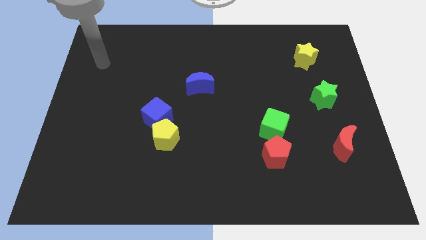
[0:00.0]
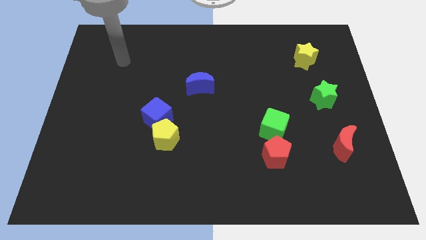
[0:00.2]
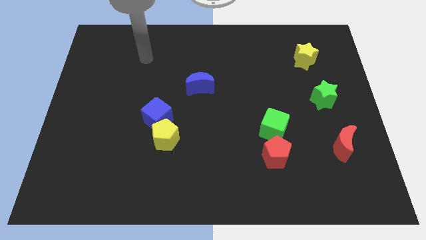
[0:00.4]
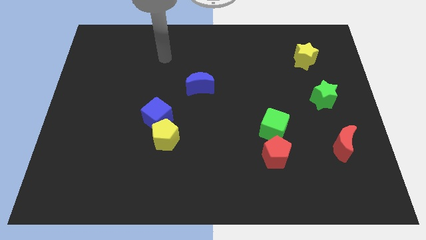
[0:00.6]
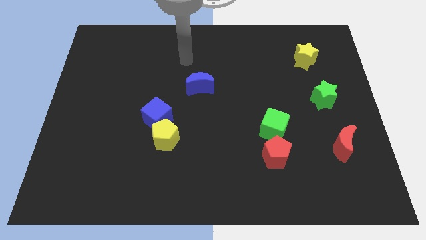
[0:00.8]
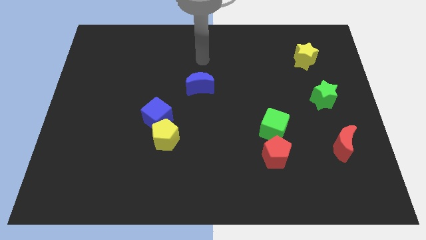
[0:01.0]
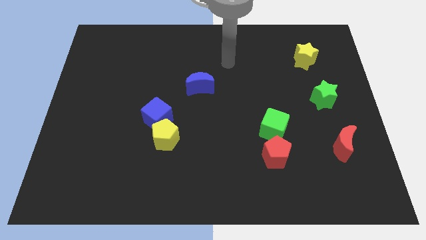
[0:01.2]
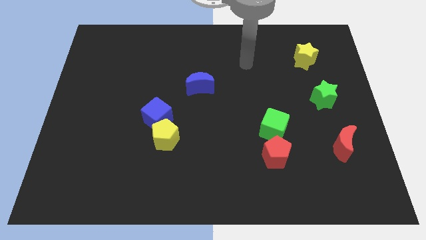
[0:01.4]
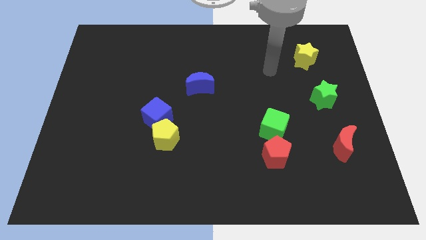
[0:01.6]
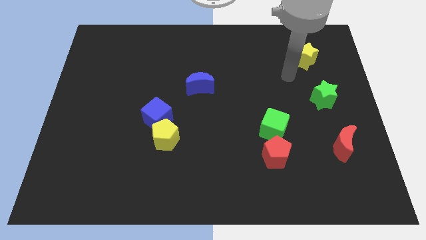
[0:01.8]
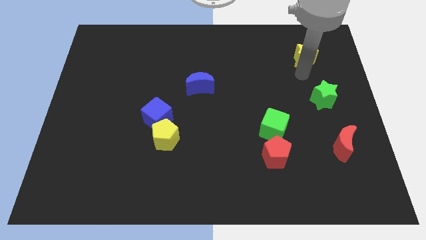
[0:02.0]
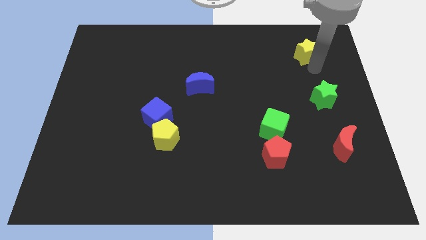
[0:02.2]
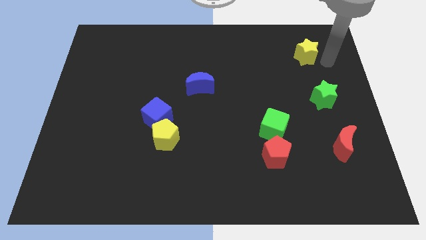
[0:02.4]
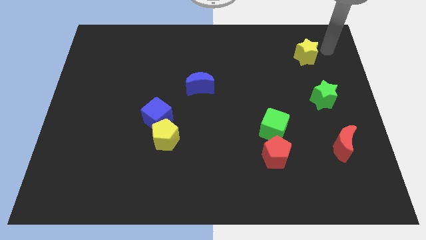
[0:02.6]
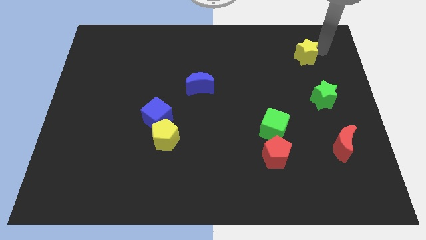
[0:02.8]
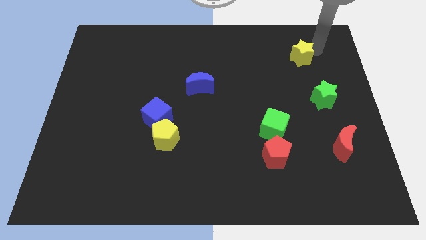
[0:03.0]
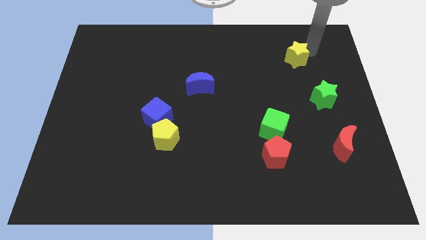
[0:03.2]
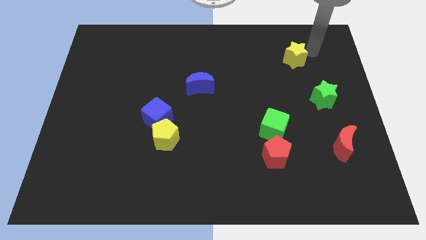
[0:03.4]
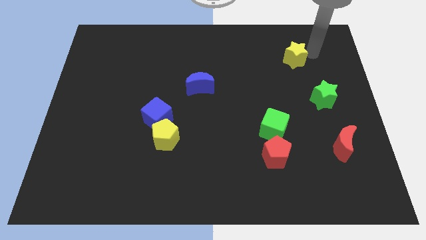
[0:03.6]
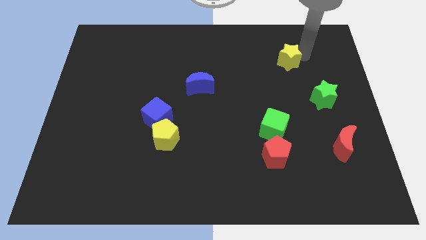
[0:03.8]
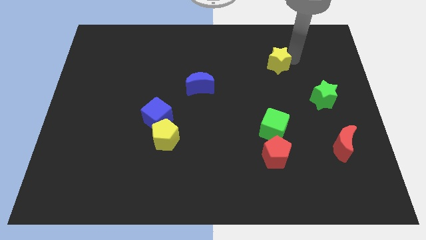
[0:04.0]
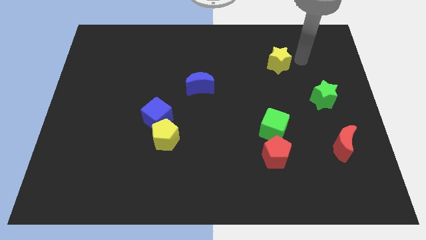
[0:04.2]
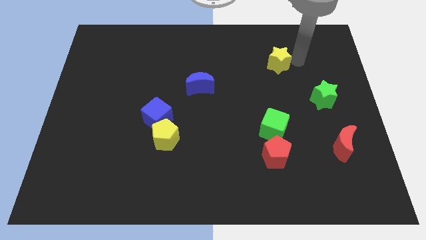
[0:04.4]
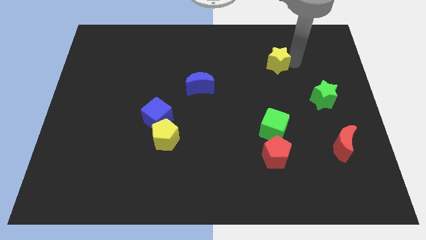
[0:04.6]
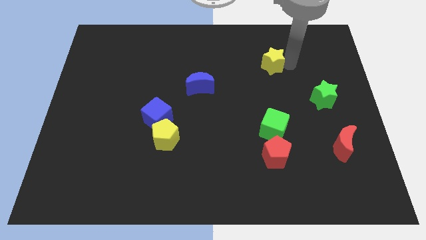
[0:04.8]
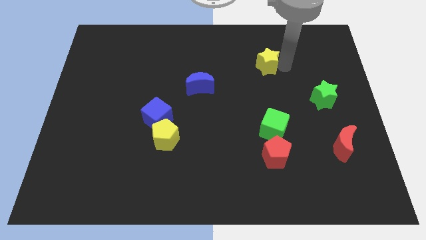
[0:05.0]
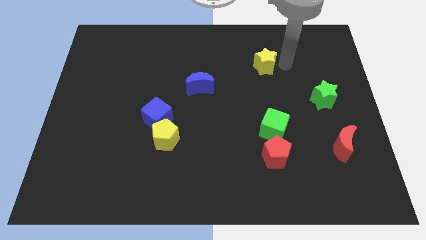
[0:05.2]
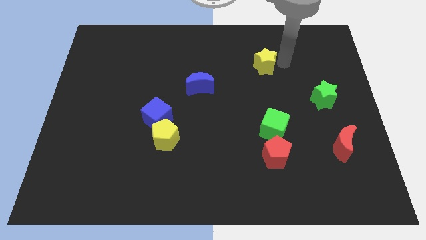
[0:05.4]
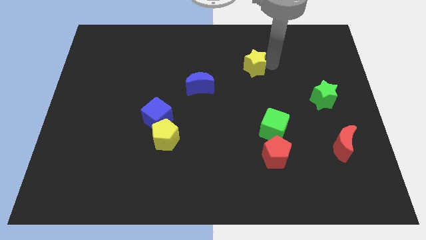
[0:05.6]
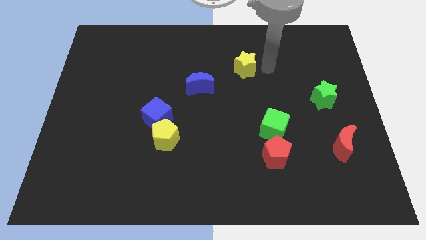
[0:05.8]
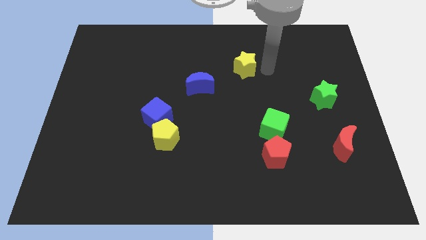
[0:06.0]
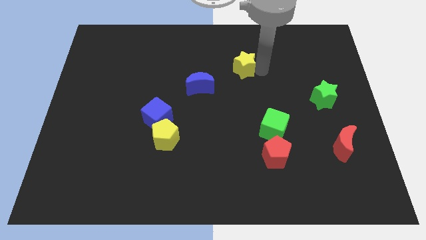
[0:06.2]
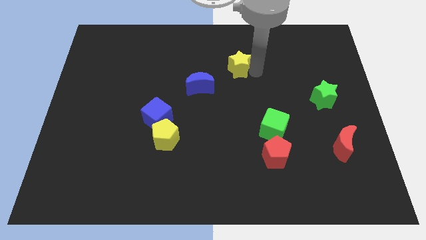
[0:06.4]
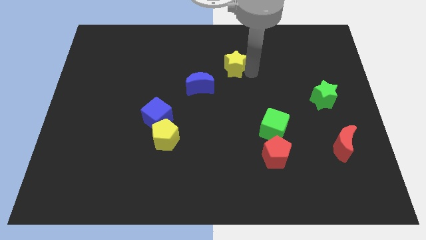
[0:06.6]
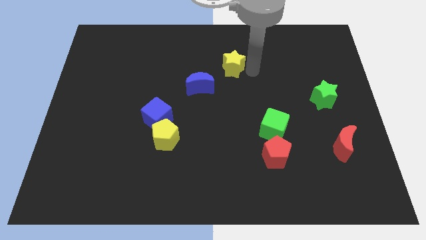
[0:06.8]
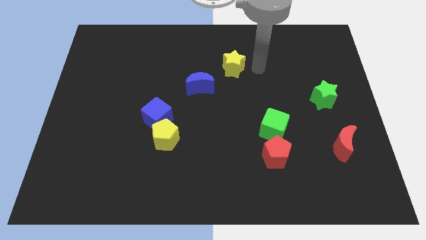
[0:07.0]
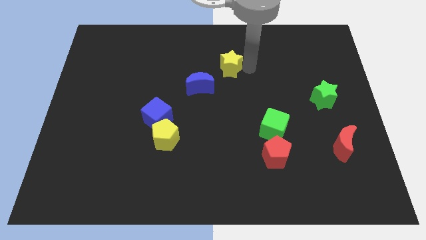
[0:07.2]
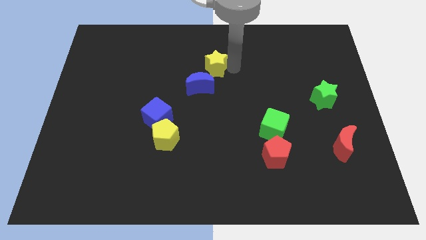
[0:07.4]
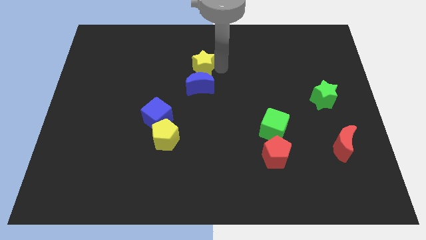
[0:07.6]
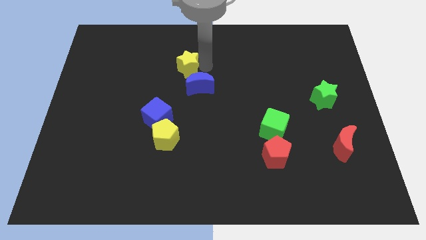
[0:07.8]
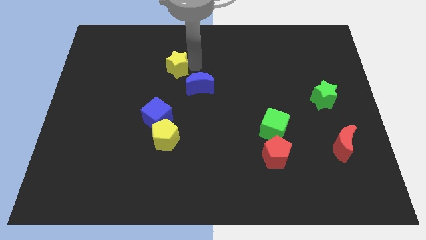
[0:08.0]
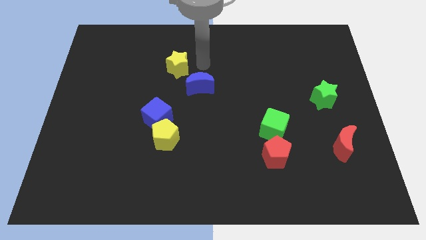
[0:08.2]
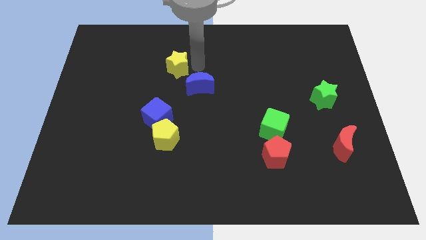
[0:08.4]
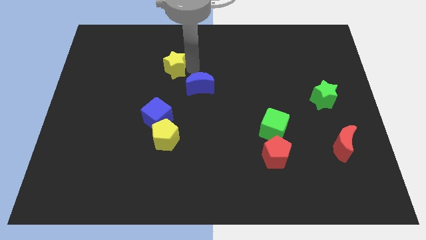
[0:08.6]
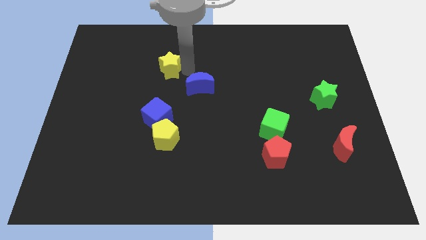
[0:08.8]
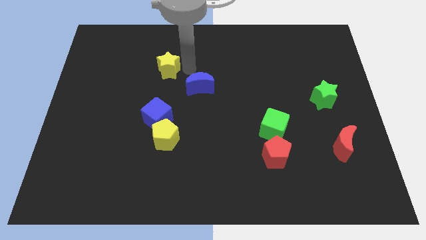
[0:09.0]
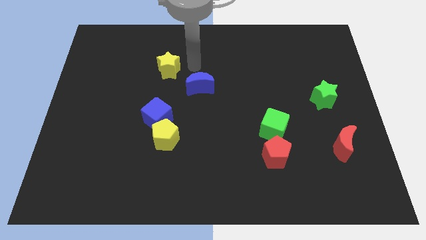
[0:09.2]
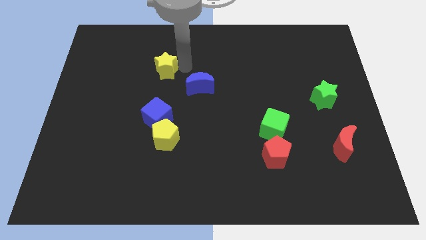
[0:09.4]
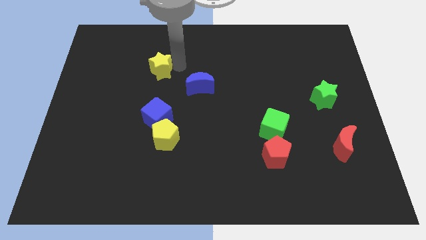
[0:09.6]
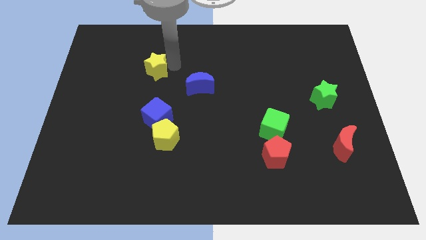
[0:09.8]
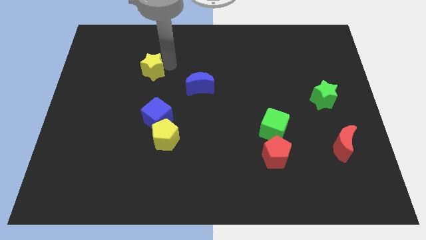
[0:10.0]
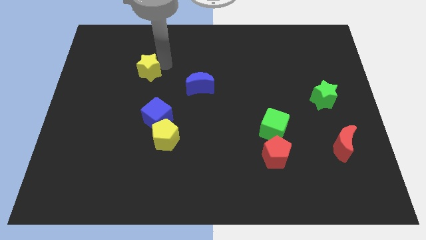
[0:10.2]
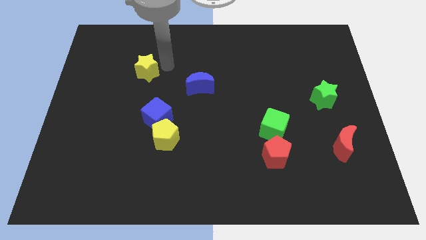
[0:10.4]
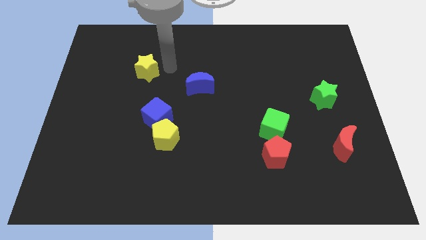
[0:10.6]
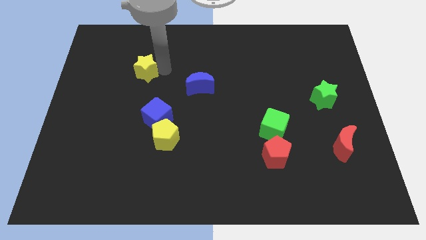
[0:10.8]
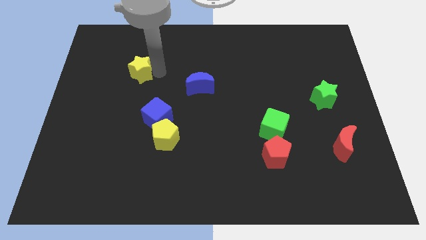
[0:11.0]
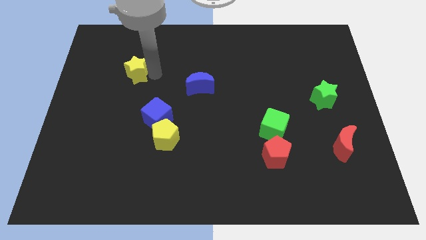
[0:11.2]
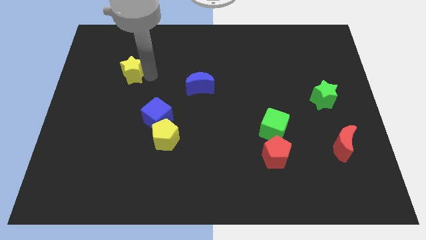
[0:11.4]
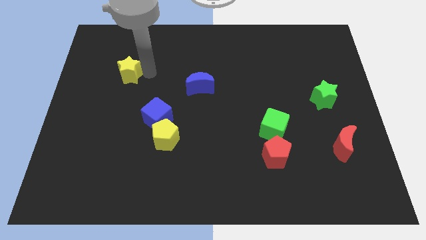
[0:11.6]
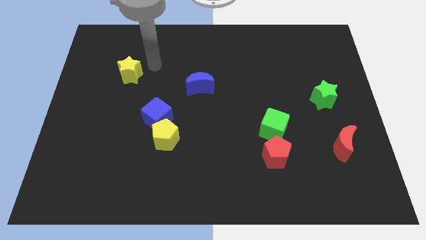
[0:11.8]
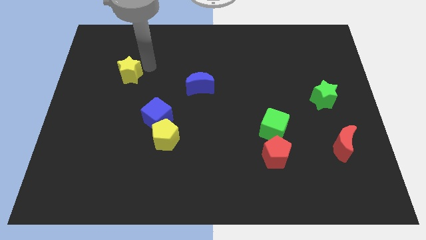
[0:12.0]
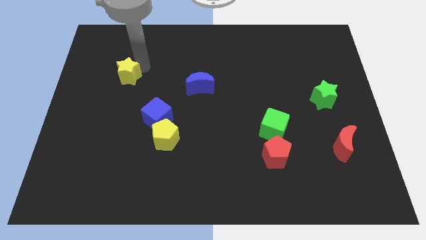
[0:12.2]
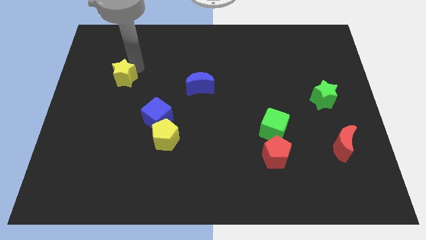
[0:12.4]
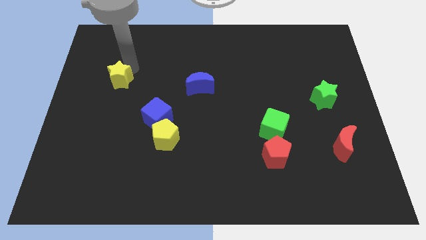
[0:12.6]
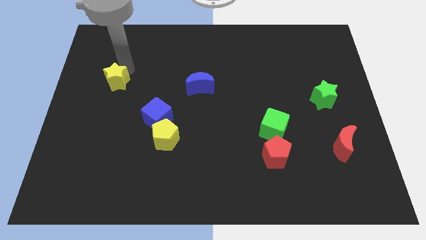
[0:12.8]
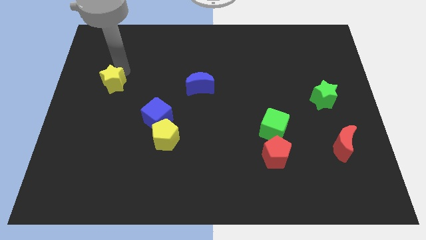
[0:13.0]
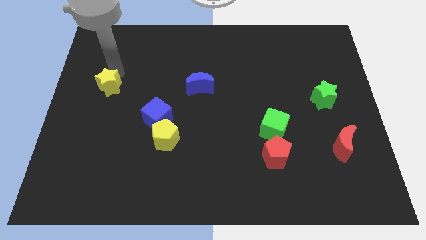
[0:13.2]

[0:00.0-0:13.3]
push the yellow star to the center left
